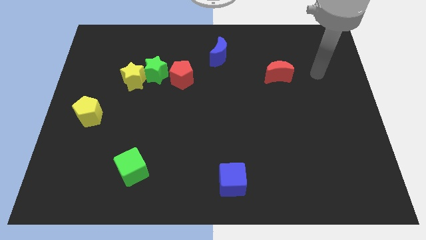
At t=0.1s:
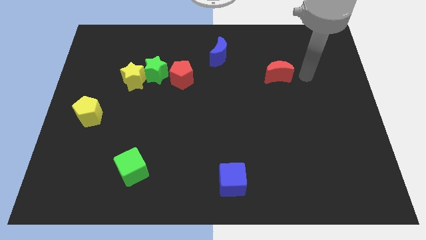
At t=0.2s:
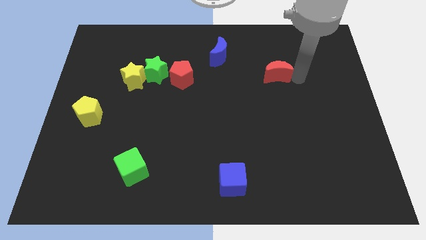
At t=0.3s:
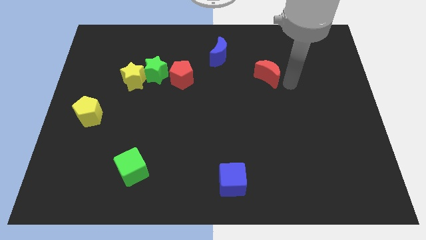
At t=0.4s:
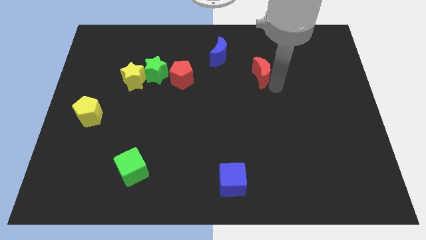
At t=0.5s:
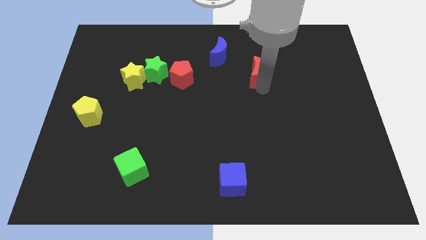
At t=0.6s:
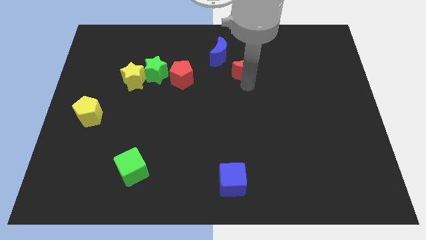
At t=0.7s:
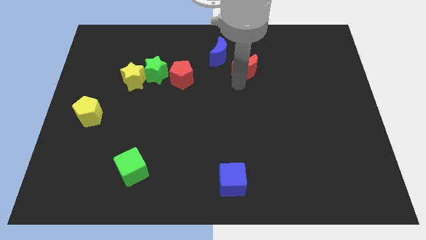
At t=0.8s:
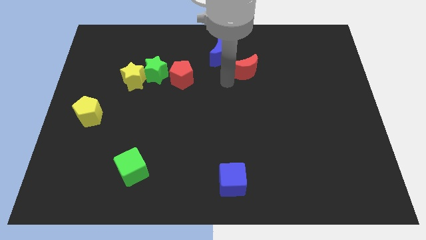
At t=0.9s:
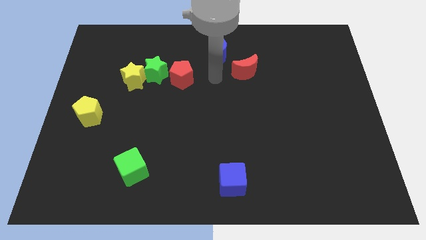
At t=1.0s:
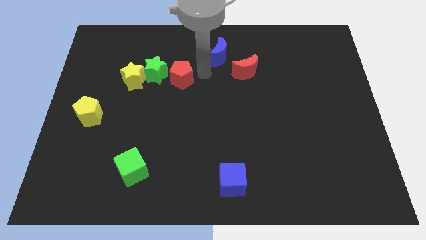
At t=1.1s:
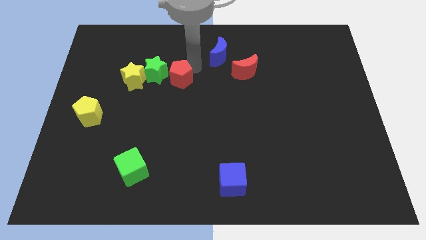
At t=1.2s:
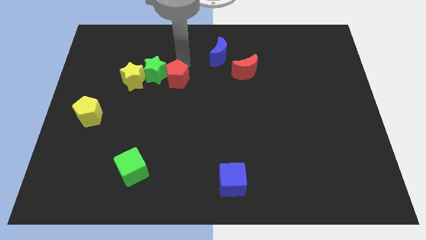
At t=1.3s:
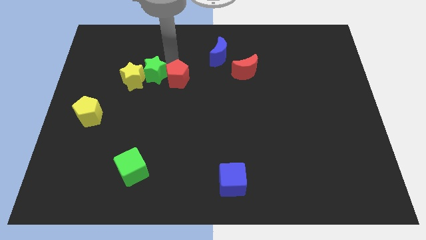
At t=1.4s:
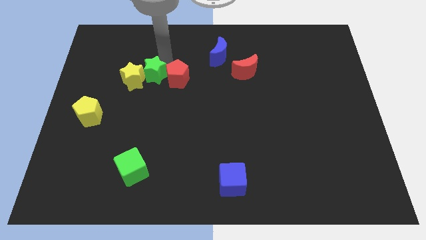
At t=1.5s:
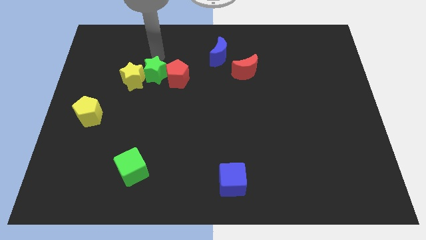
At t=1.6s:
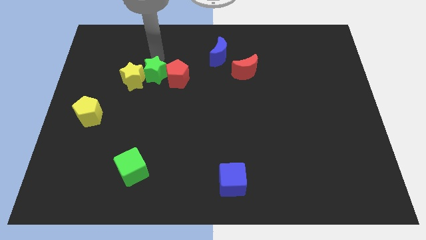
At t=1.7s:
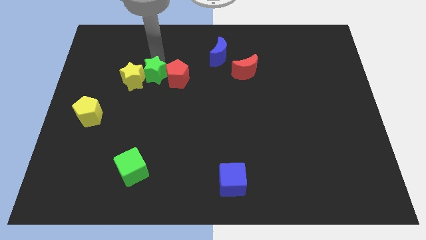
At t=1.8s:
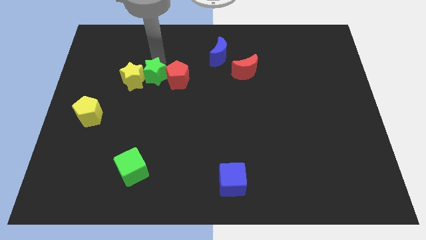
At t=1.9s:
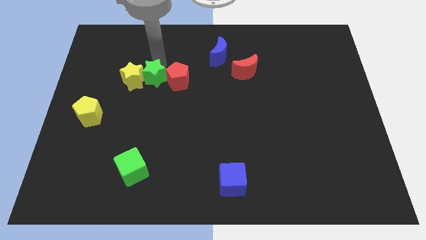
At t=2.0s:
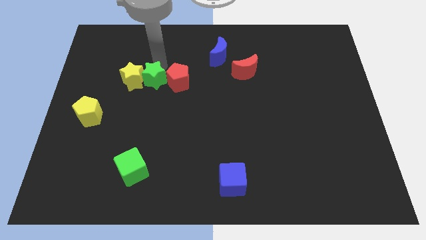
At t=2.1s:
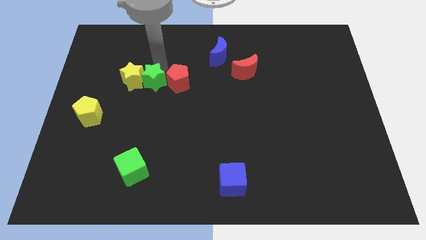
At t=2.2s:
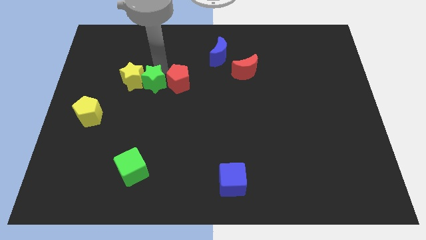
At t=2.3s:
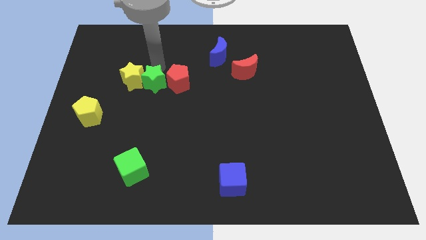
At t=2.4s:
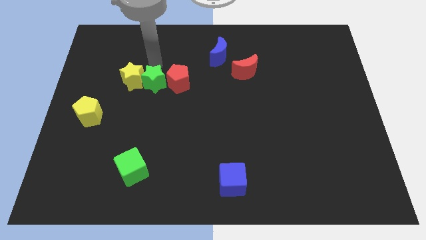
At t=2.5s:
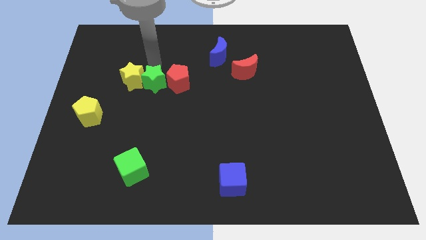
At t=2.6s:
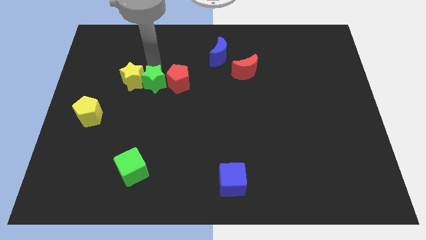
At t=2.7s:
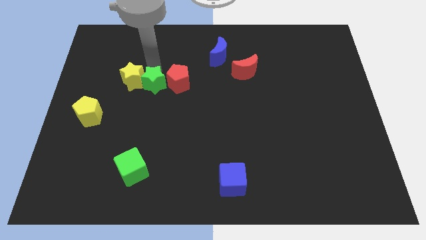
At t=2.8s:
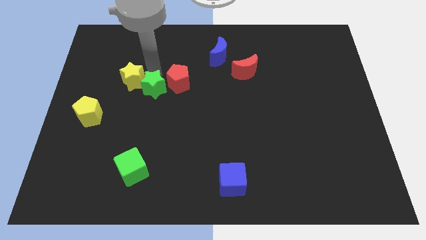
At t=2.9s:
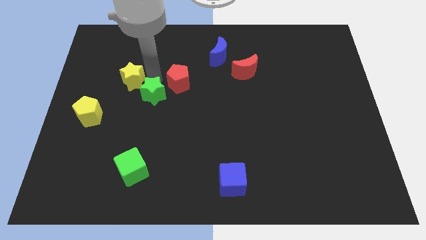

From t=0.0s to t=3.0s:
move the green star down a little bit

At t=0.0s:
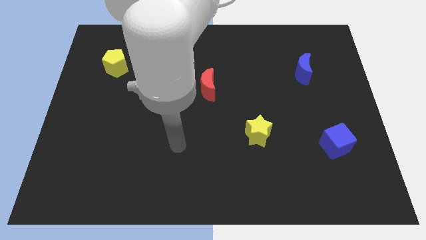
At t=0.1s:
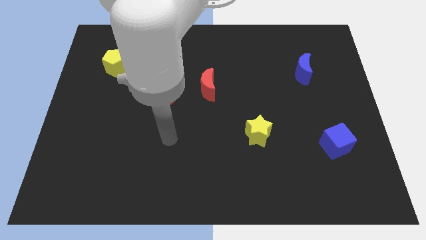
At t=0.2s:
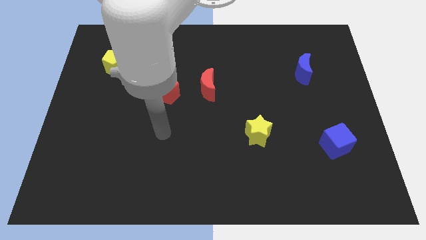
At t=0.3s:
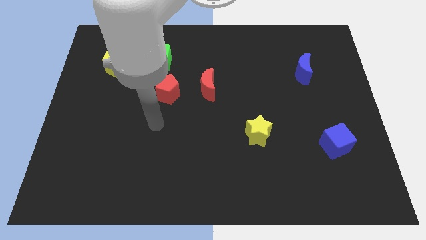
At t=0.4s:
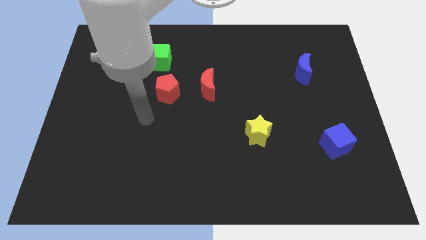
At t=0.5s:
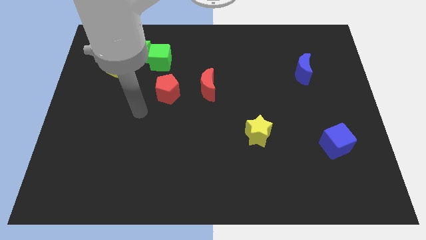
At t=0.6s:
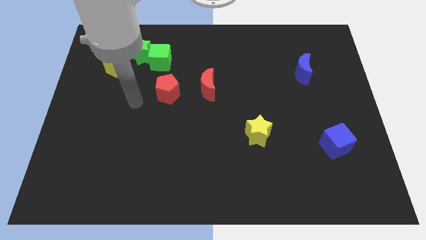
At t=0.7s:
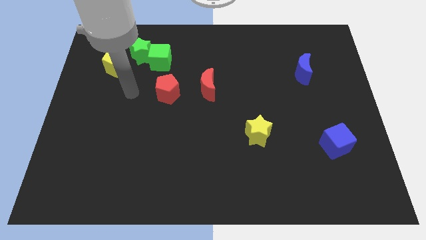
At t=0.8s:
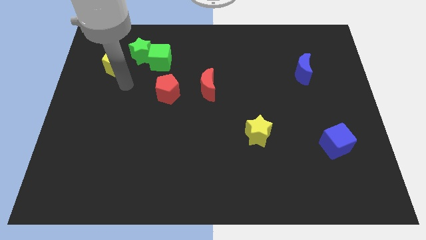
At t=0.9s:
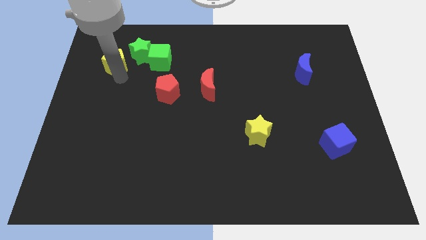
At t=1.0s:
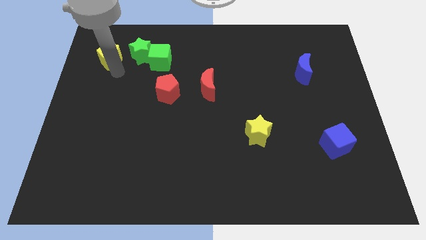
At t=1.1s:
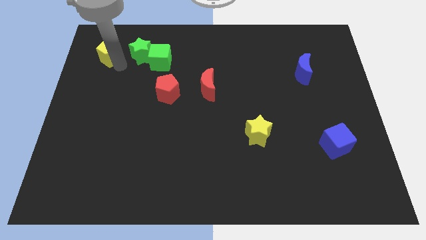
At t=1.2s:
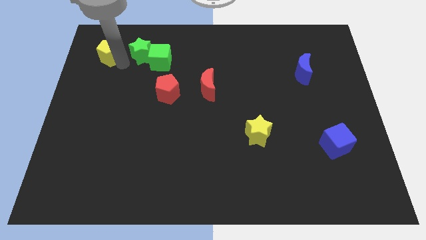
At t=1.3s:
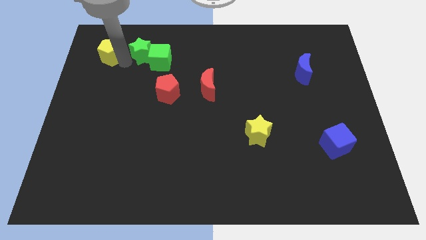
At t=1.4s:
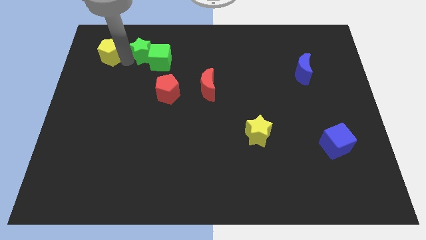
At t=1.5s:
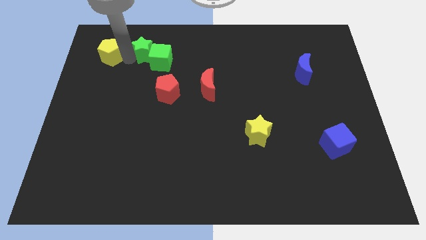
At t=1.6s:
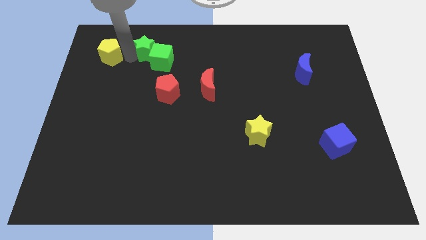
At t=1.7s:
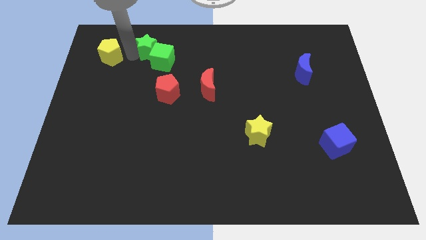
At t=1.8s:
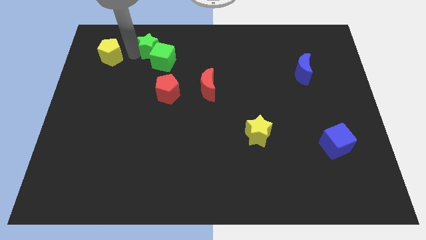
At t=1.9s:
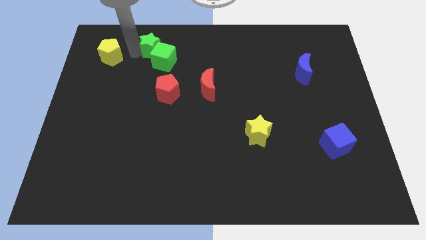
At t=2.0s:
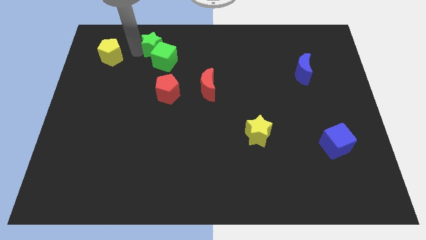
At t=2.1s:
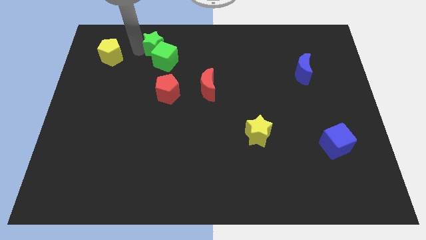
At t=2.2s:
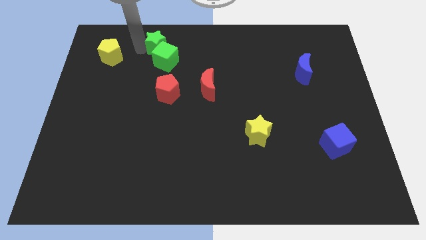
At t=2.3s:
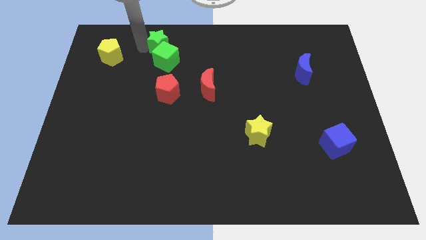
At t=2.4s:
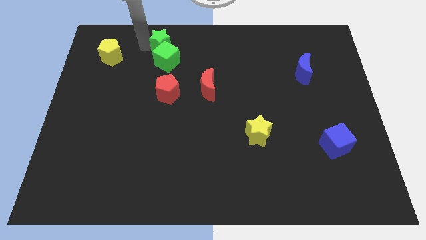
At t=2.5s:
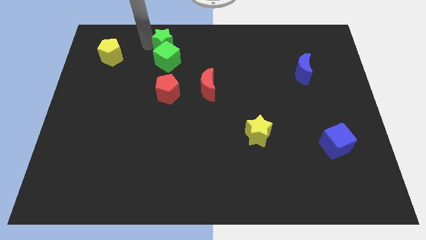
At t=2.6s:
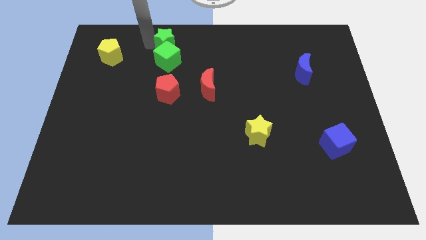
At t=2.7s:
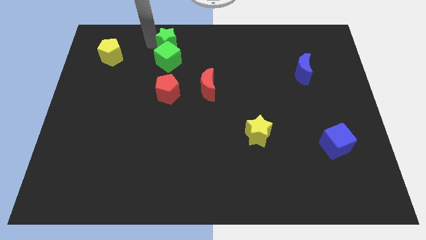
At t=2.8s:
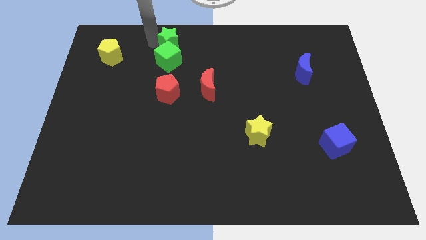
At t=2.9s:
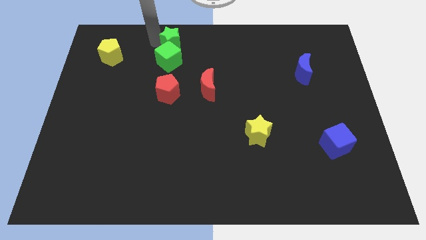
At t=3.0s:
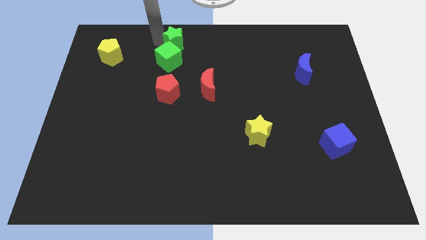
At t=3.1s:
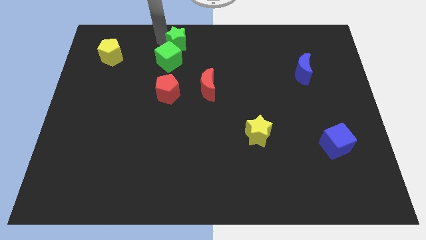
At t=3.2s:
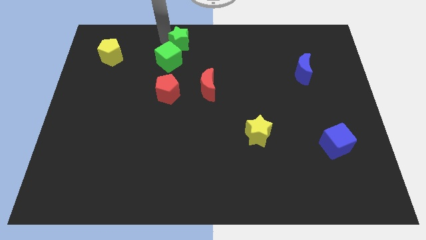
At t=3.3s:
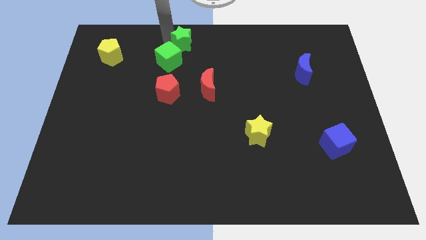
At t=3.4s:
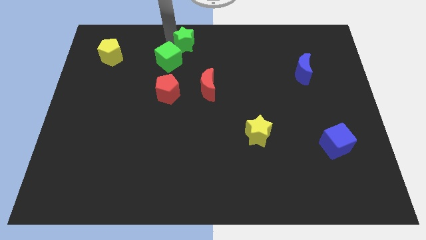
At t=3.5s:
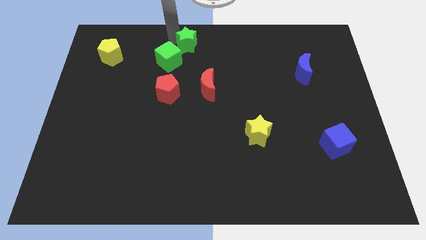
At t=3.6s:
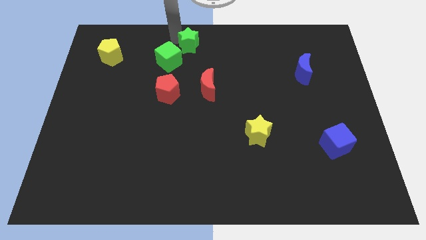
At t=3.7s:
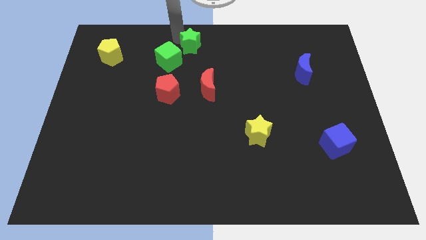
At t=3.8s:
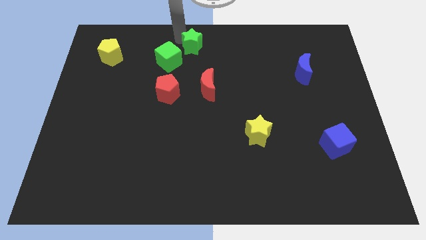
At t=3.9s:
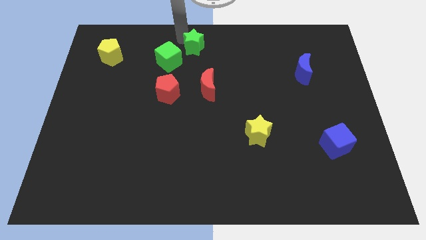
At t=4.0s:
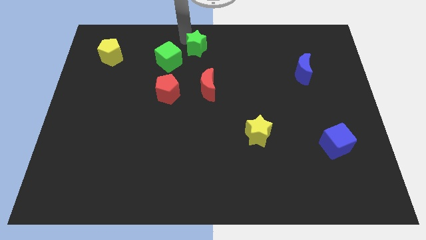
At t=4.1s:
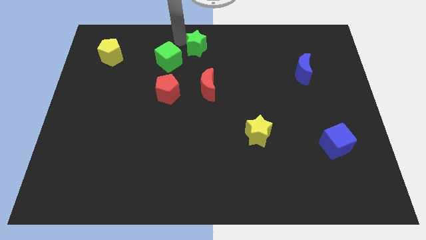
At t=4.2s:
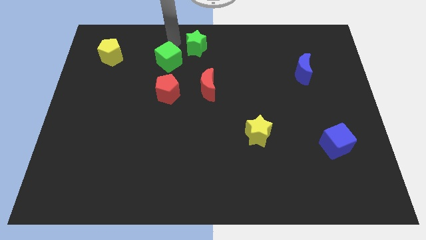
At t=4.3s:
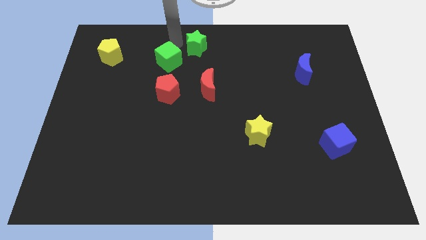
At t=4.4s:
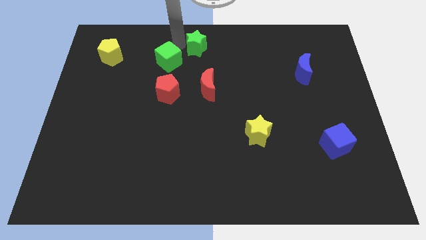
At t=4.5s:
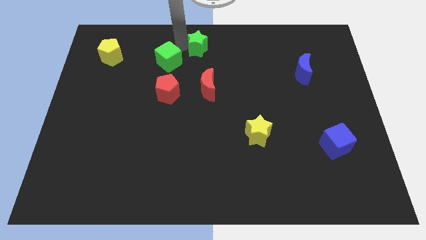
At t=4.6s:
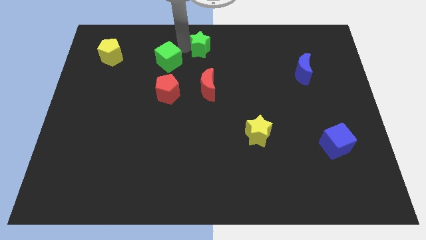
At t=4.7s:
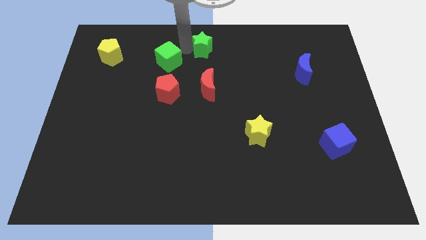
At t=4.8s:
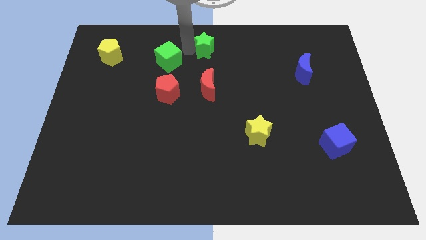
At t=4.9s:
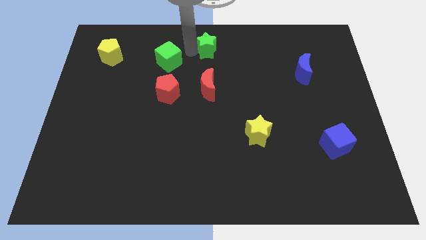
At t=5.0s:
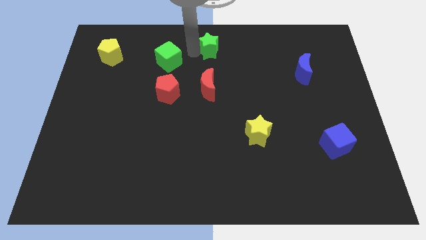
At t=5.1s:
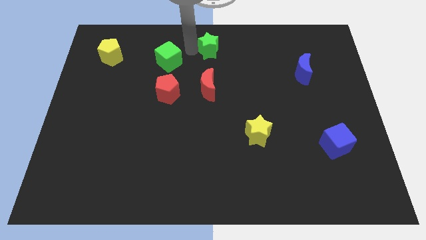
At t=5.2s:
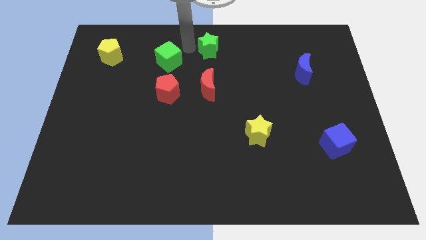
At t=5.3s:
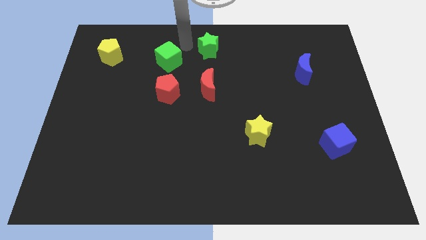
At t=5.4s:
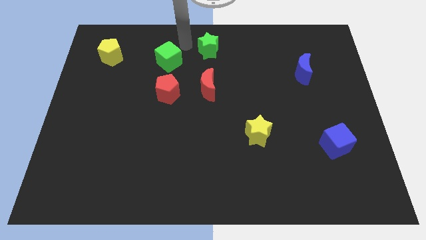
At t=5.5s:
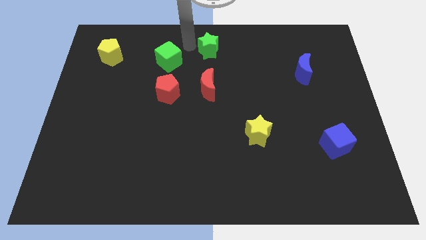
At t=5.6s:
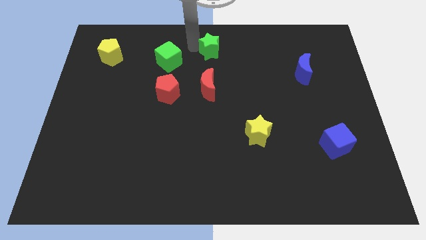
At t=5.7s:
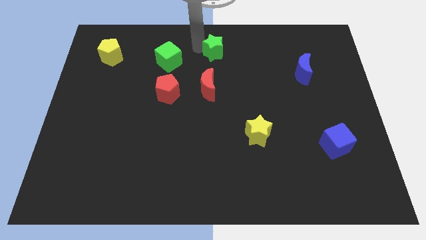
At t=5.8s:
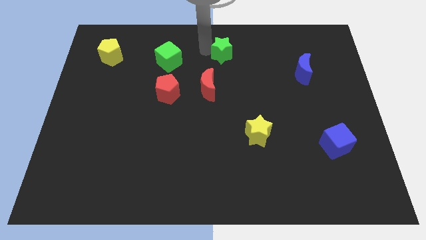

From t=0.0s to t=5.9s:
push the green star right
